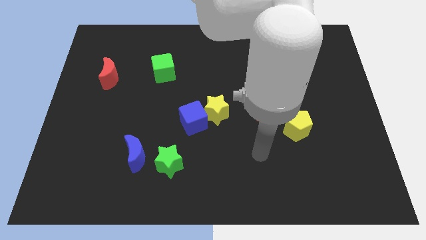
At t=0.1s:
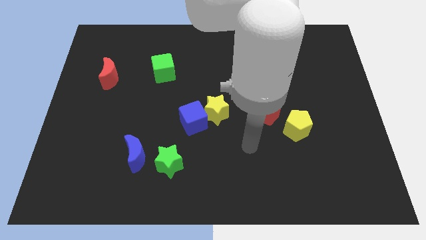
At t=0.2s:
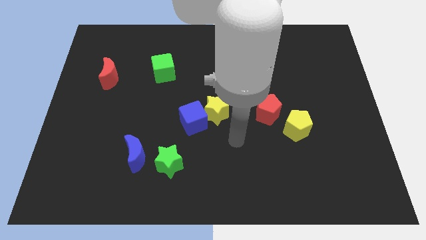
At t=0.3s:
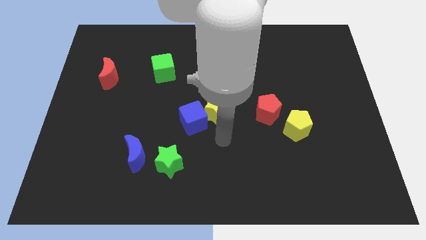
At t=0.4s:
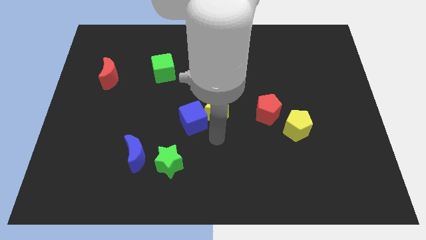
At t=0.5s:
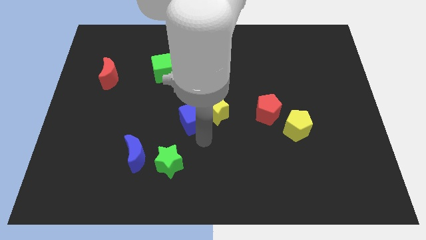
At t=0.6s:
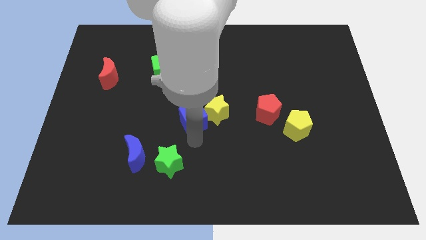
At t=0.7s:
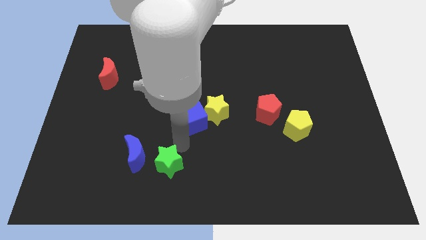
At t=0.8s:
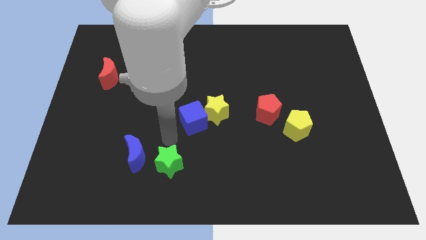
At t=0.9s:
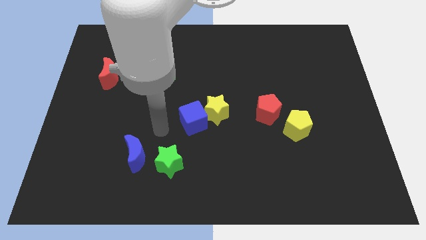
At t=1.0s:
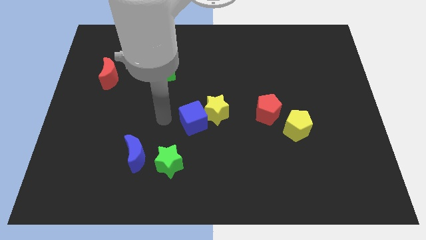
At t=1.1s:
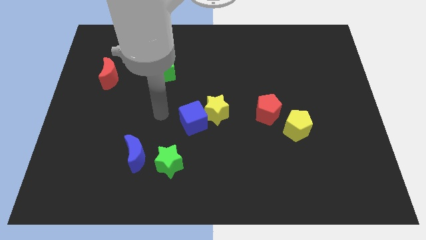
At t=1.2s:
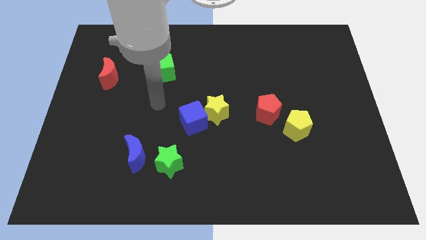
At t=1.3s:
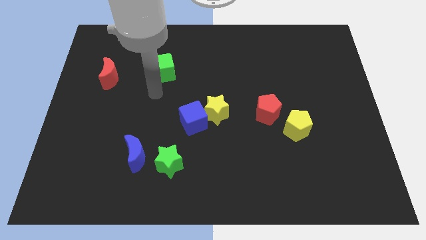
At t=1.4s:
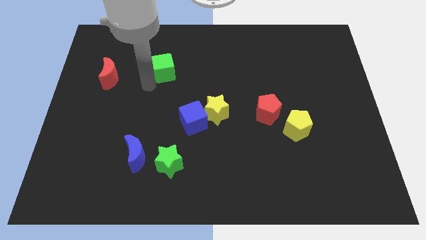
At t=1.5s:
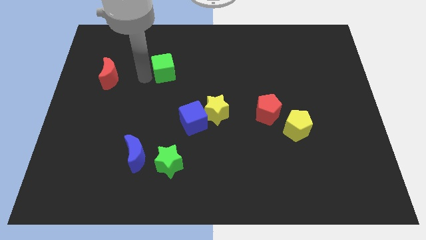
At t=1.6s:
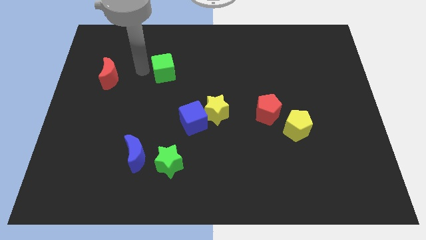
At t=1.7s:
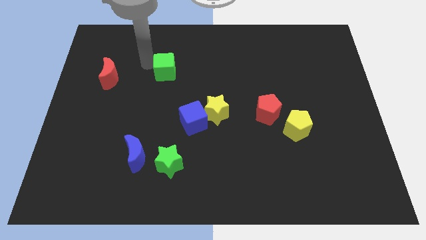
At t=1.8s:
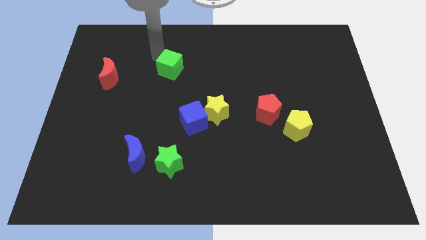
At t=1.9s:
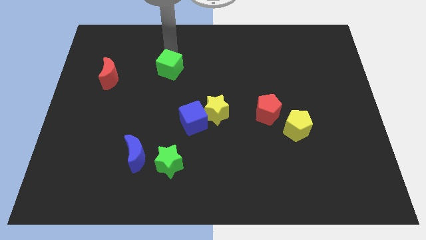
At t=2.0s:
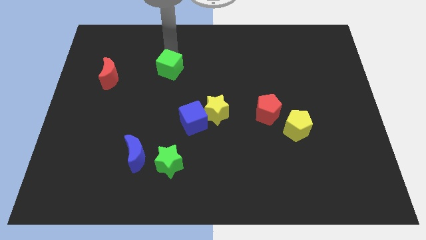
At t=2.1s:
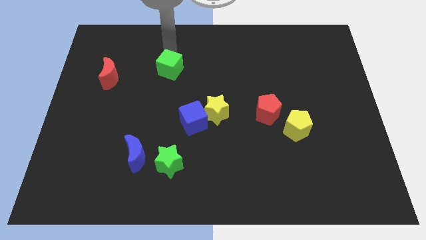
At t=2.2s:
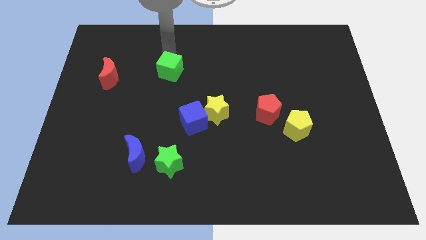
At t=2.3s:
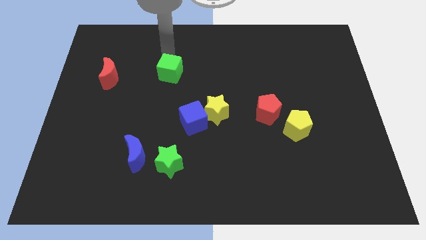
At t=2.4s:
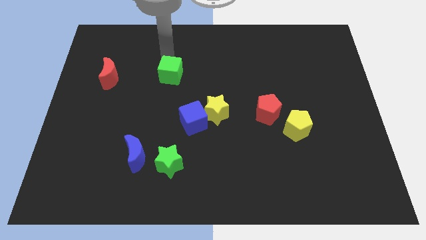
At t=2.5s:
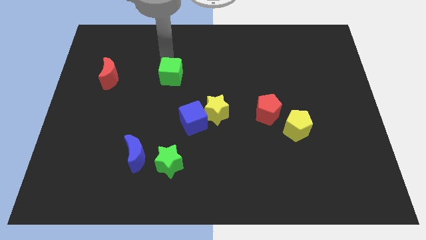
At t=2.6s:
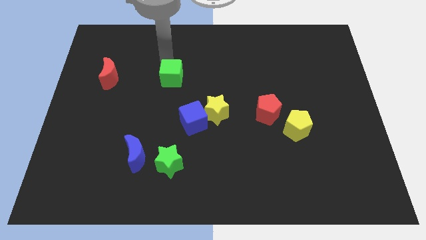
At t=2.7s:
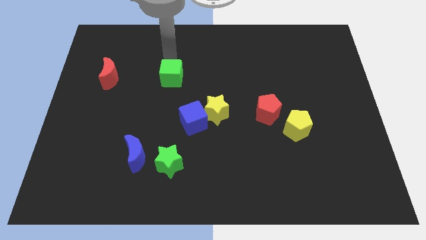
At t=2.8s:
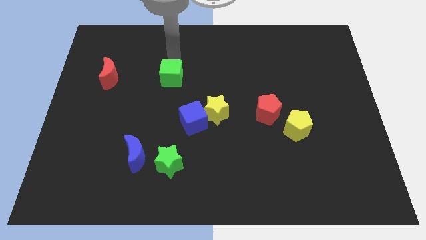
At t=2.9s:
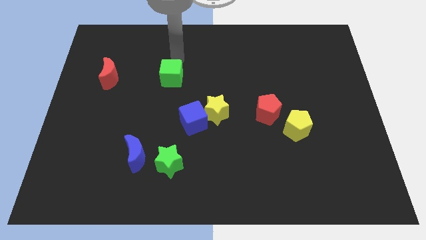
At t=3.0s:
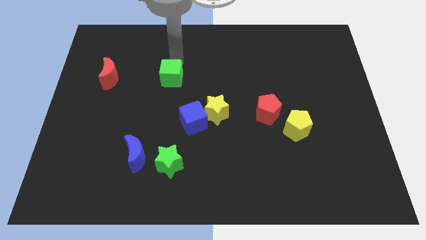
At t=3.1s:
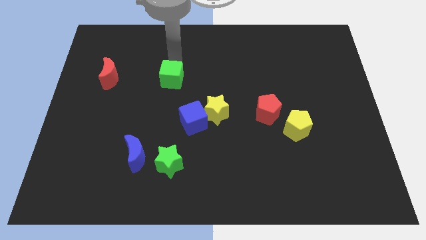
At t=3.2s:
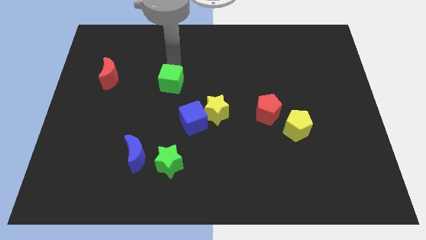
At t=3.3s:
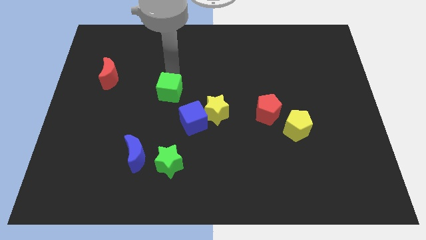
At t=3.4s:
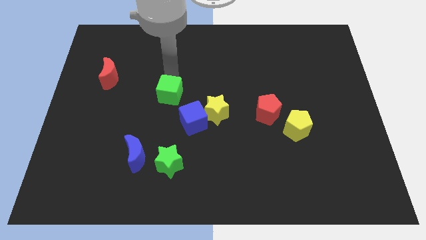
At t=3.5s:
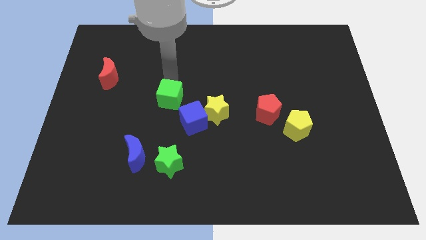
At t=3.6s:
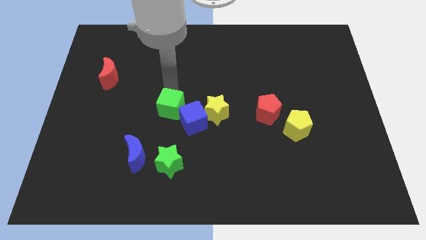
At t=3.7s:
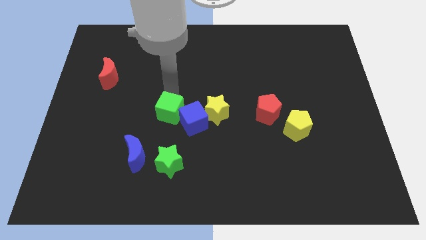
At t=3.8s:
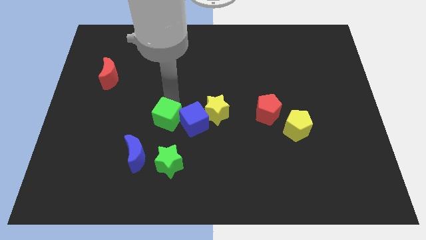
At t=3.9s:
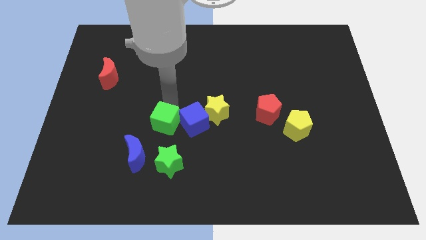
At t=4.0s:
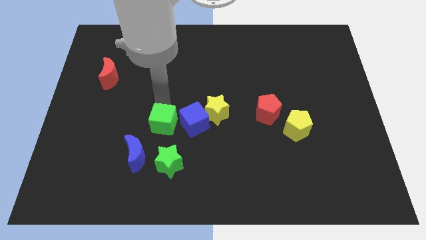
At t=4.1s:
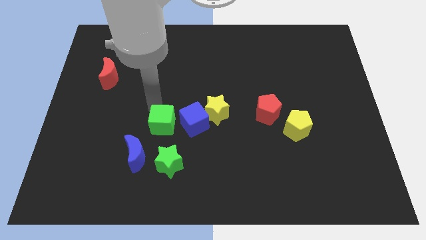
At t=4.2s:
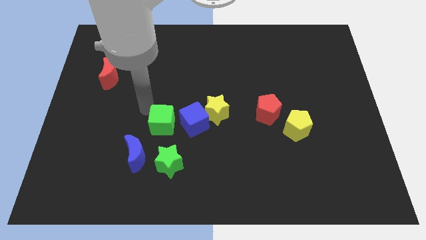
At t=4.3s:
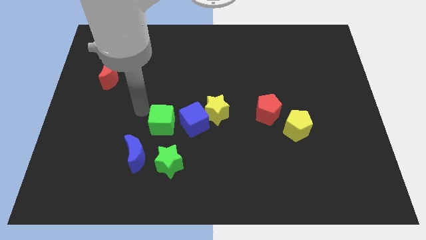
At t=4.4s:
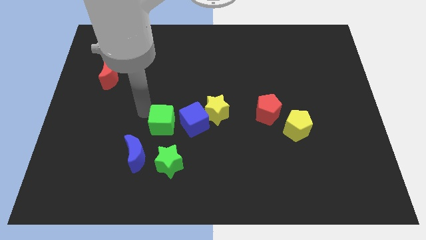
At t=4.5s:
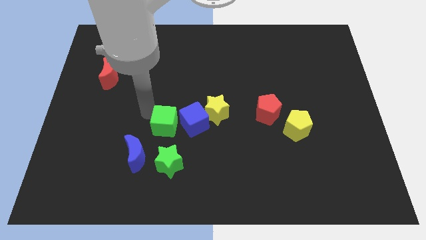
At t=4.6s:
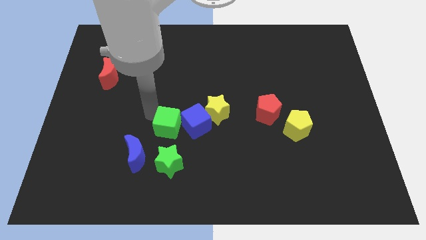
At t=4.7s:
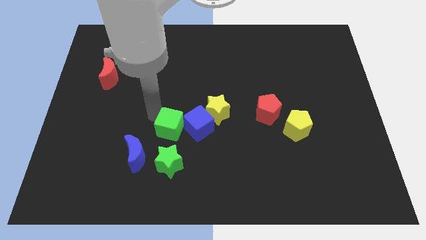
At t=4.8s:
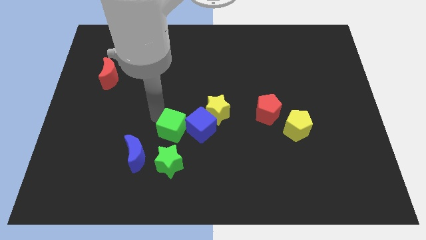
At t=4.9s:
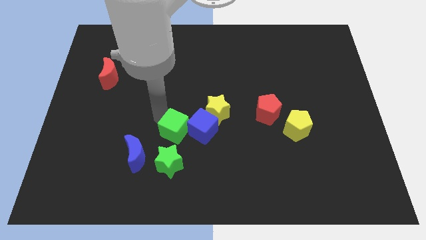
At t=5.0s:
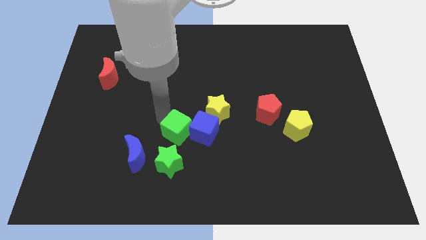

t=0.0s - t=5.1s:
put the green cube to the top right side of the green star

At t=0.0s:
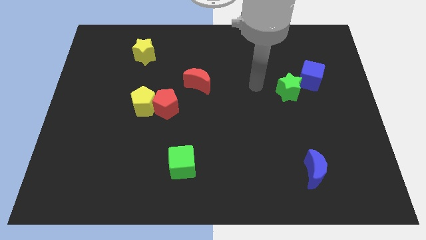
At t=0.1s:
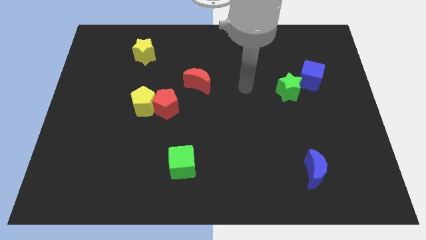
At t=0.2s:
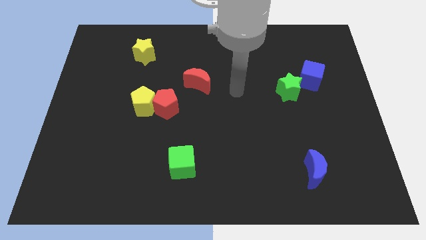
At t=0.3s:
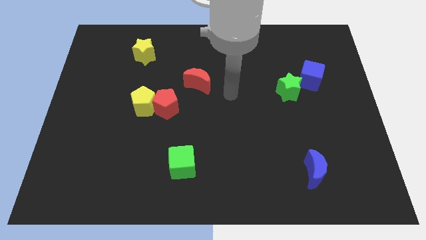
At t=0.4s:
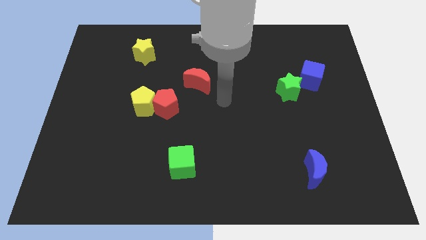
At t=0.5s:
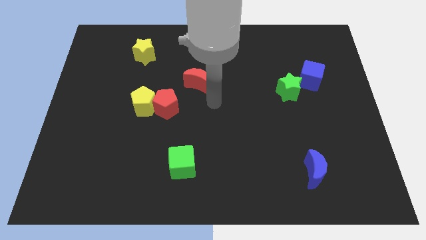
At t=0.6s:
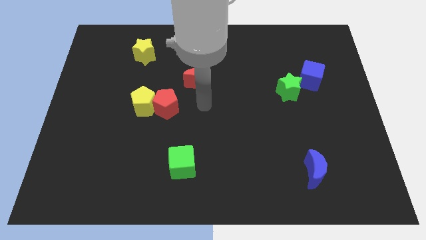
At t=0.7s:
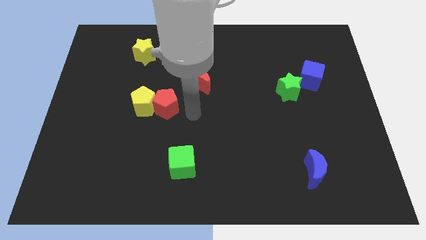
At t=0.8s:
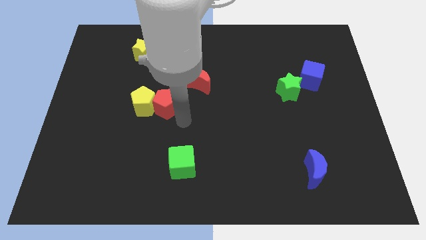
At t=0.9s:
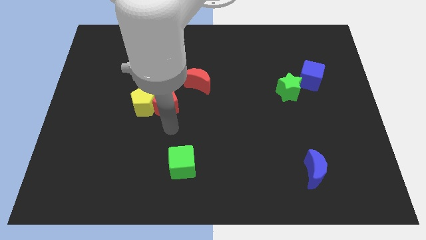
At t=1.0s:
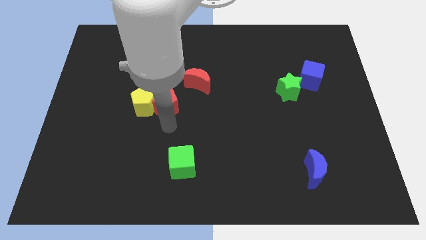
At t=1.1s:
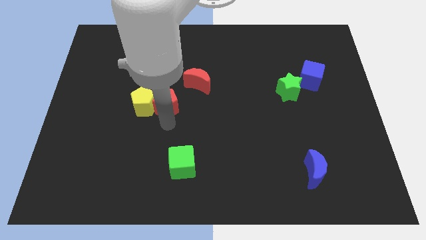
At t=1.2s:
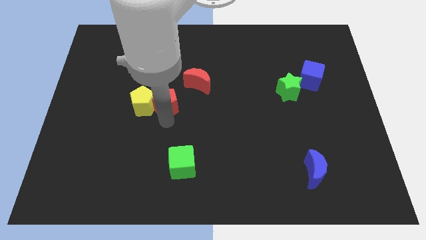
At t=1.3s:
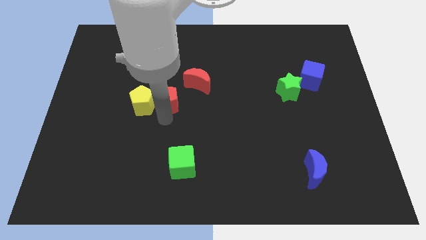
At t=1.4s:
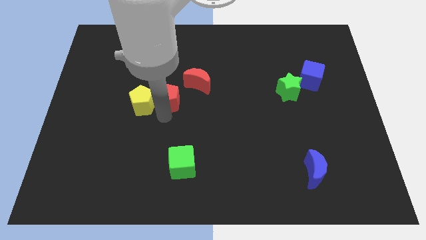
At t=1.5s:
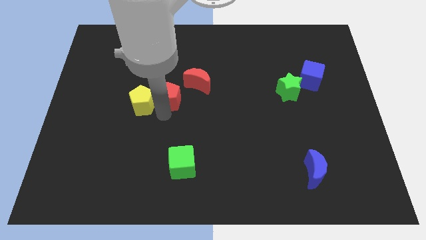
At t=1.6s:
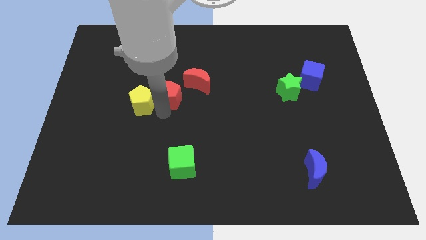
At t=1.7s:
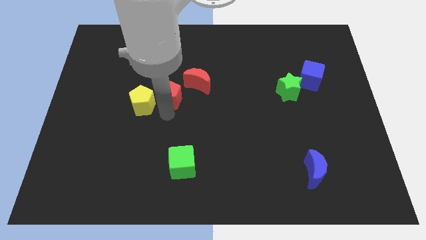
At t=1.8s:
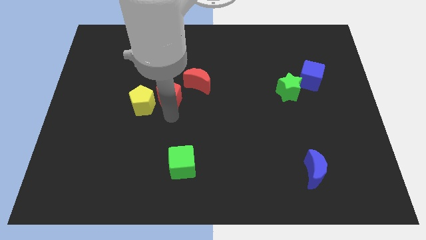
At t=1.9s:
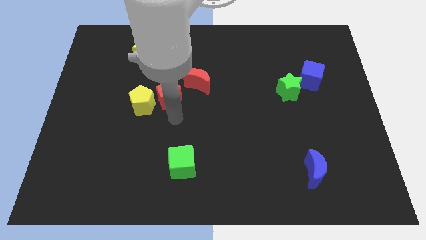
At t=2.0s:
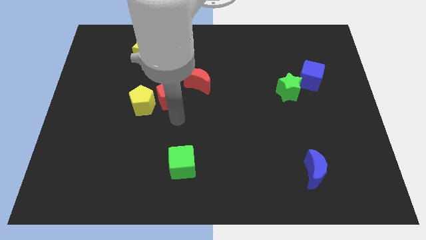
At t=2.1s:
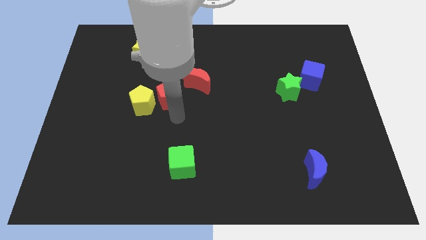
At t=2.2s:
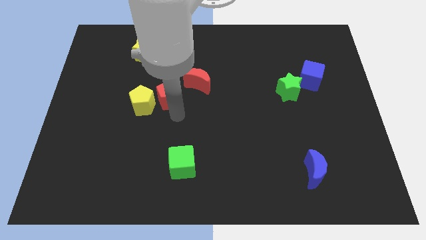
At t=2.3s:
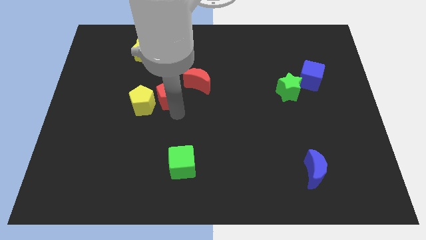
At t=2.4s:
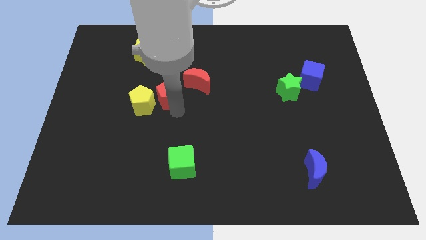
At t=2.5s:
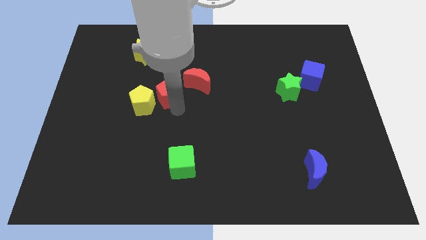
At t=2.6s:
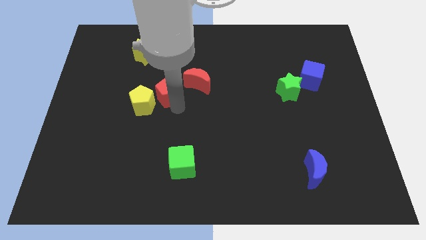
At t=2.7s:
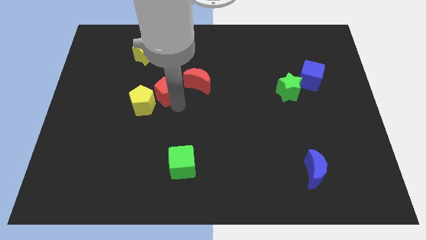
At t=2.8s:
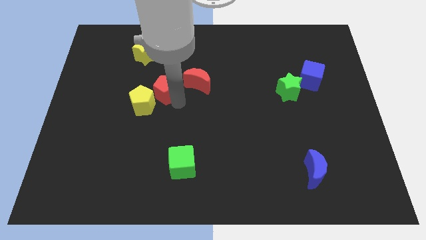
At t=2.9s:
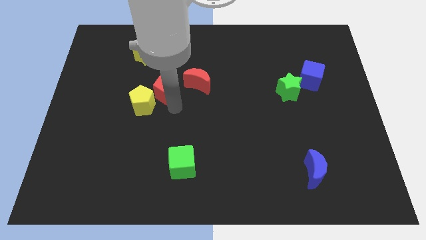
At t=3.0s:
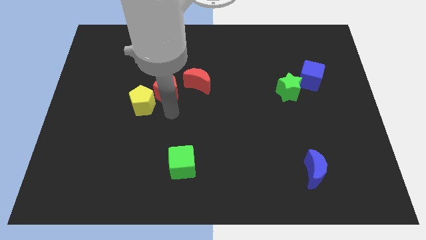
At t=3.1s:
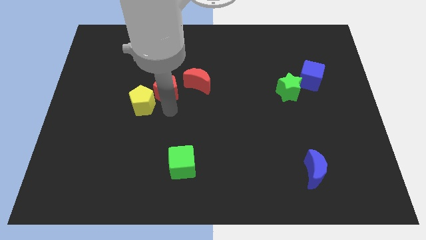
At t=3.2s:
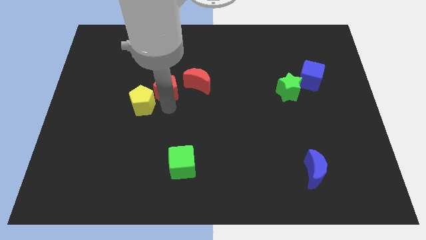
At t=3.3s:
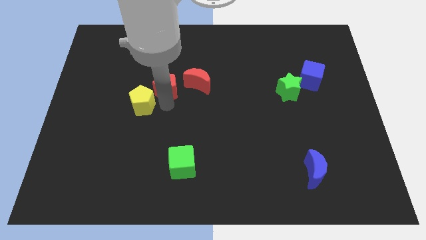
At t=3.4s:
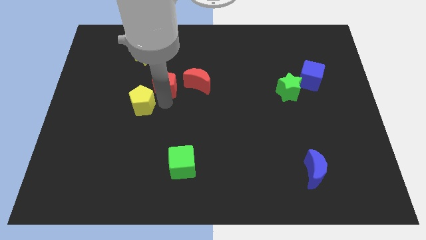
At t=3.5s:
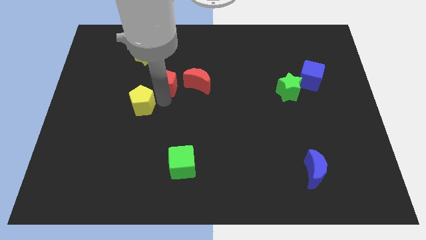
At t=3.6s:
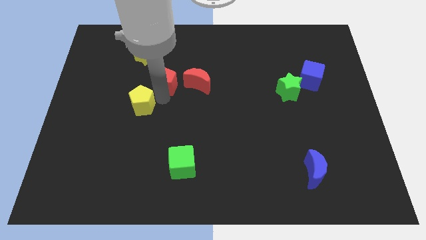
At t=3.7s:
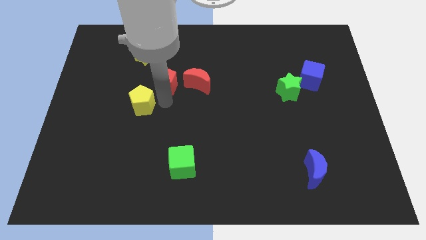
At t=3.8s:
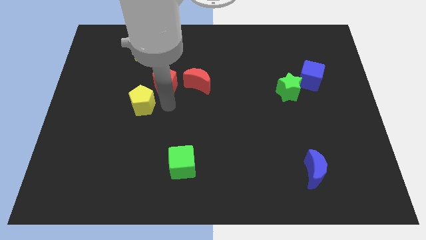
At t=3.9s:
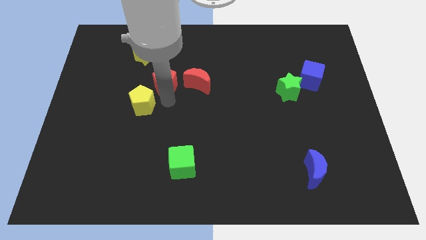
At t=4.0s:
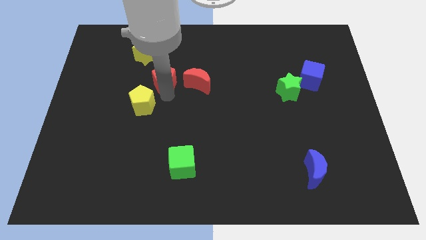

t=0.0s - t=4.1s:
move the red pentagon diagonally down and to the right of the yellow star
